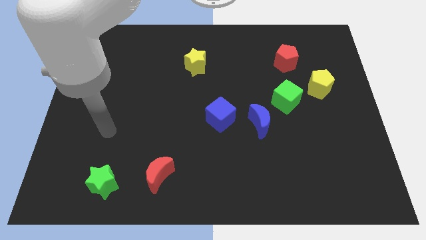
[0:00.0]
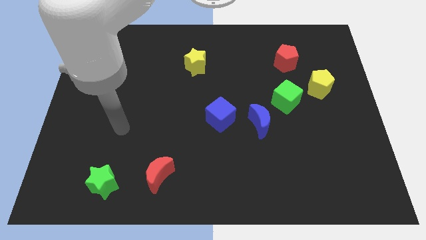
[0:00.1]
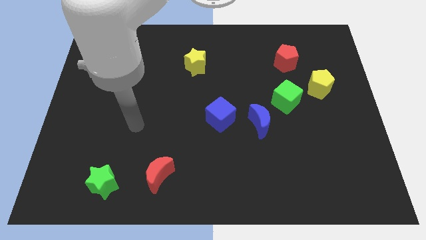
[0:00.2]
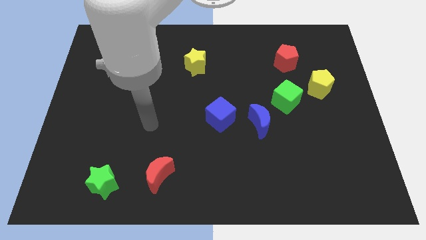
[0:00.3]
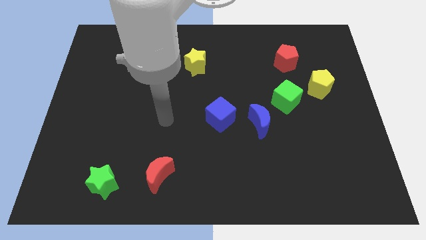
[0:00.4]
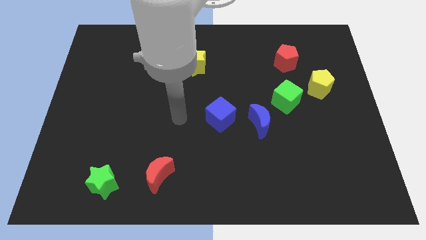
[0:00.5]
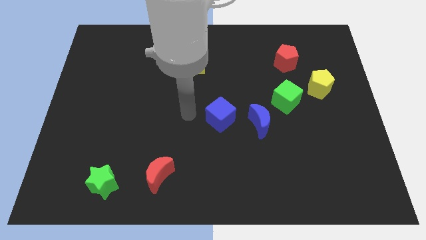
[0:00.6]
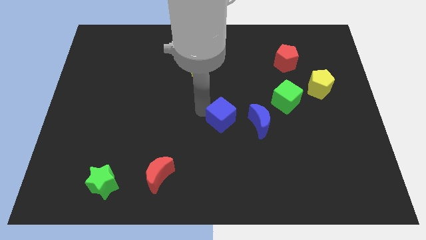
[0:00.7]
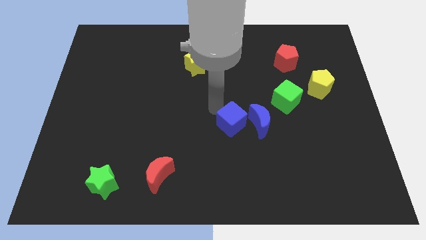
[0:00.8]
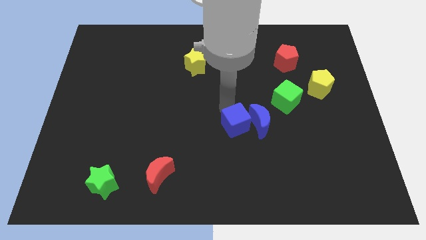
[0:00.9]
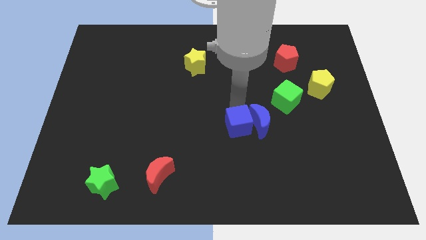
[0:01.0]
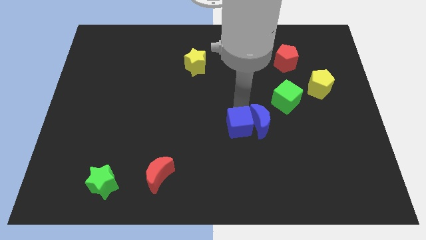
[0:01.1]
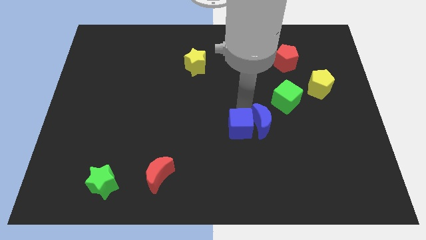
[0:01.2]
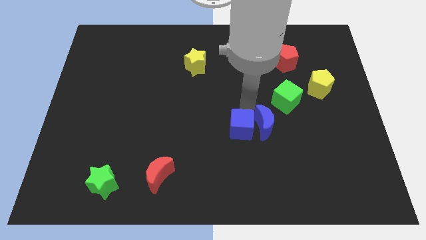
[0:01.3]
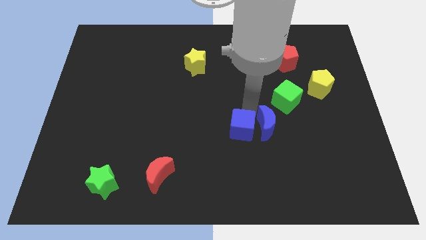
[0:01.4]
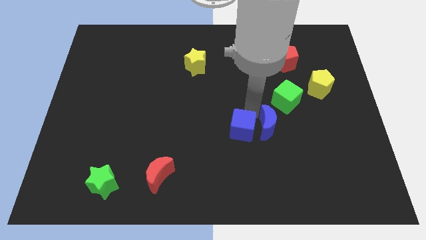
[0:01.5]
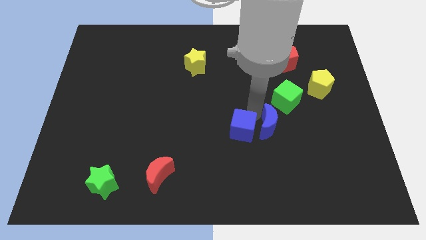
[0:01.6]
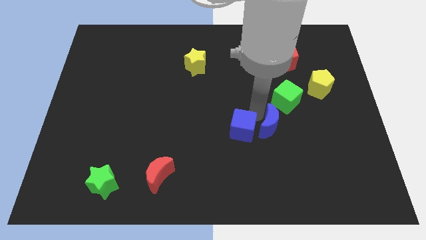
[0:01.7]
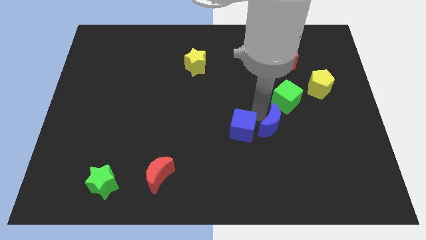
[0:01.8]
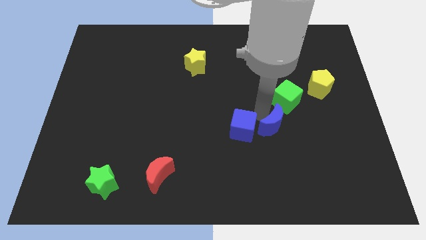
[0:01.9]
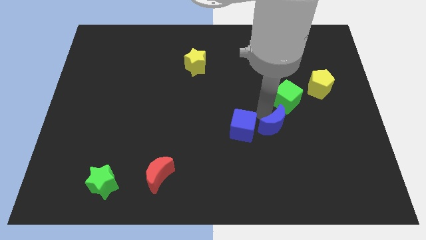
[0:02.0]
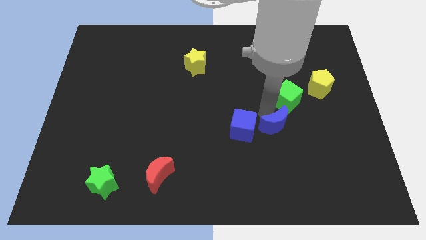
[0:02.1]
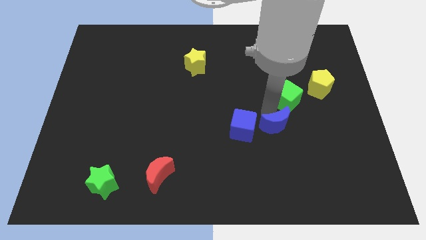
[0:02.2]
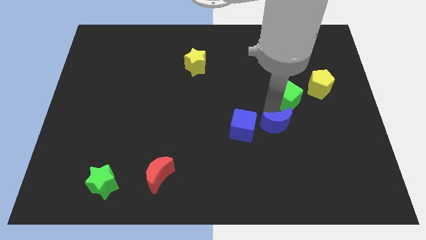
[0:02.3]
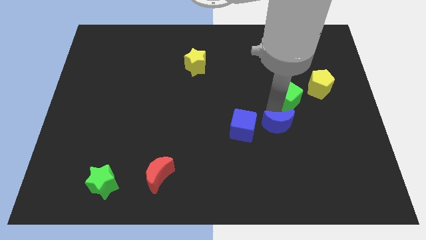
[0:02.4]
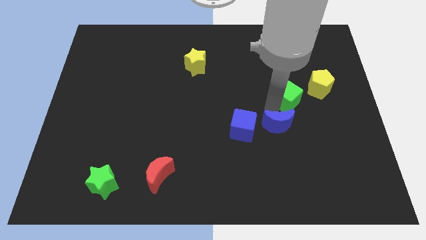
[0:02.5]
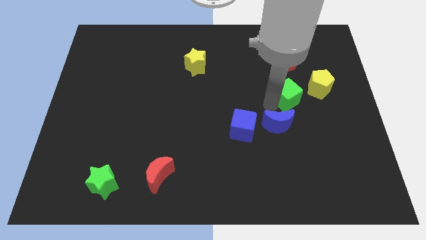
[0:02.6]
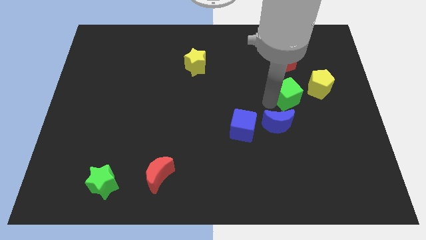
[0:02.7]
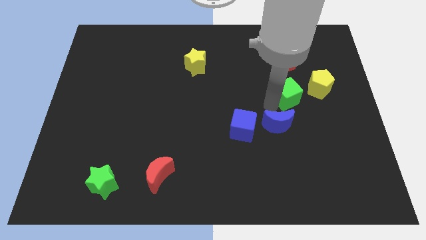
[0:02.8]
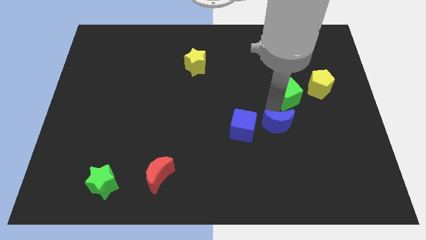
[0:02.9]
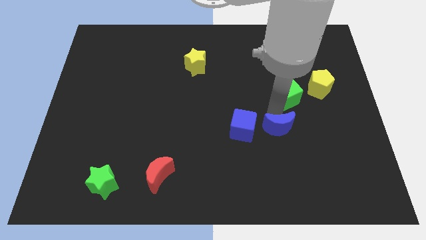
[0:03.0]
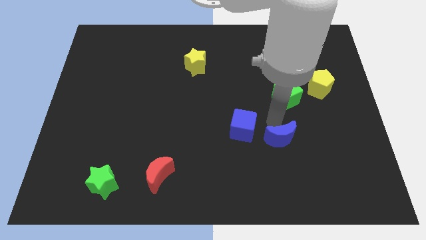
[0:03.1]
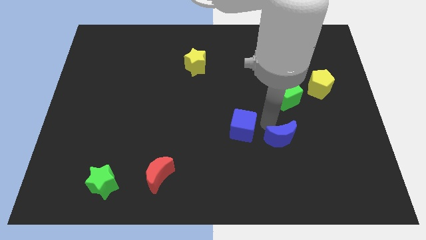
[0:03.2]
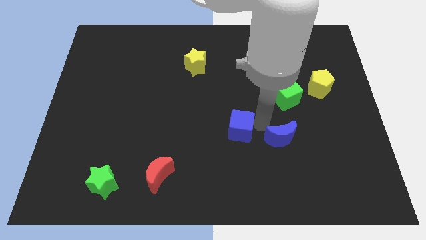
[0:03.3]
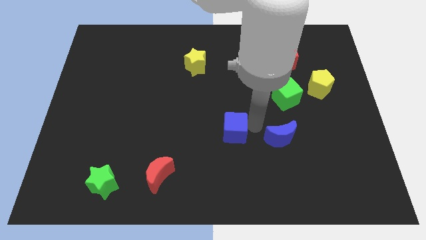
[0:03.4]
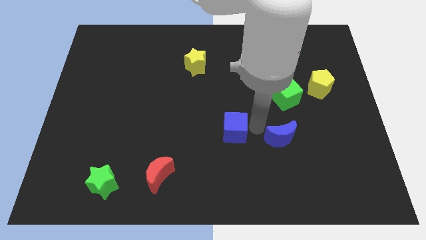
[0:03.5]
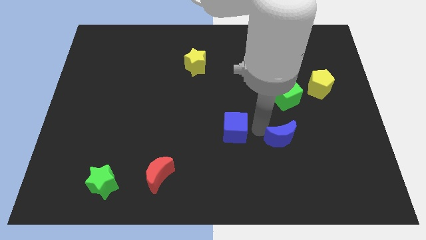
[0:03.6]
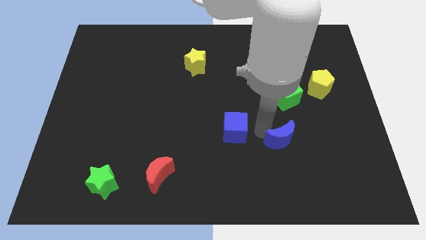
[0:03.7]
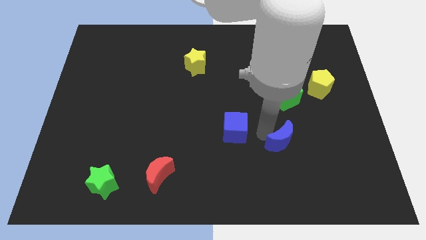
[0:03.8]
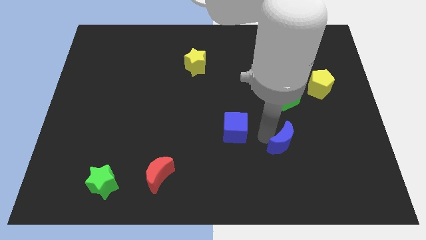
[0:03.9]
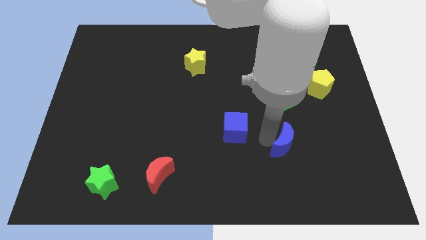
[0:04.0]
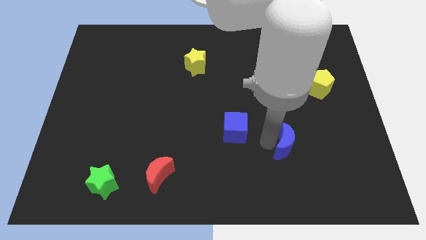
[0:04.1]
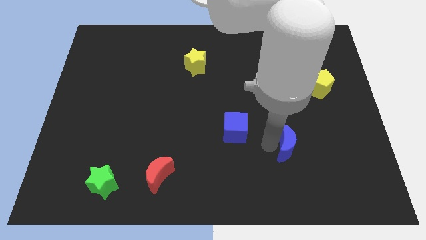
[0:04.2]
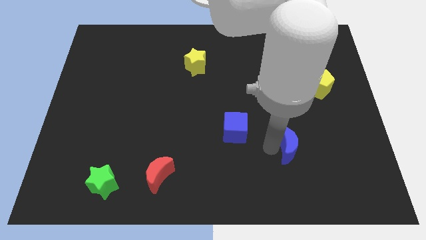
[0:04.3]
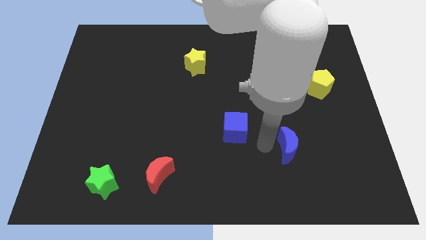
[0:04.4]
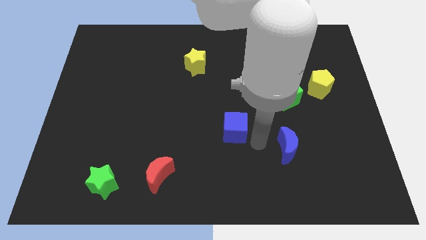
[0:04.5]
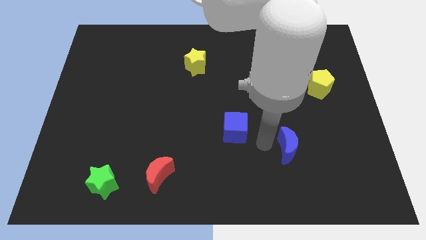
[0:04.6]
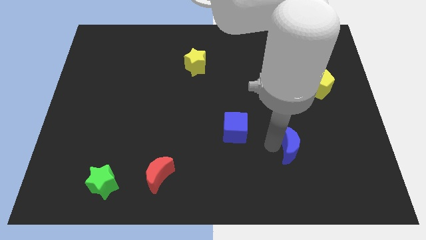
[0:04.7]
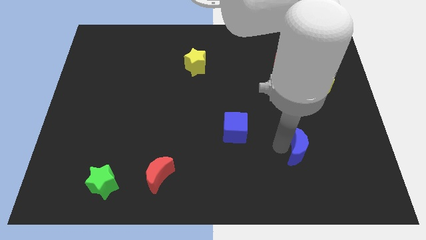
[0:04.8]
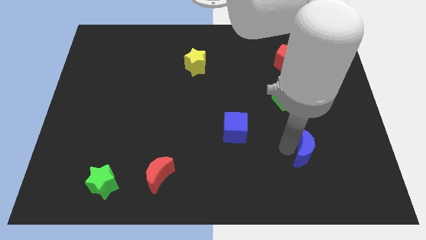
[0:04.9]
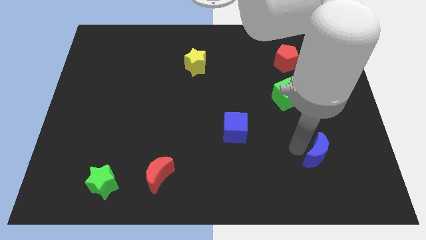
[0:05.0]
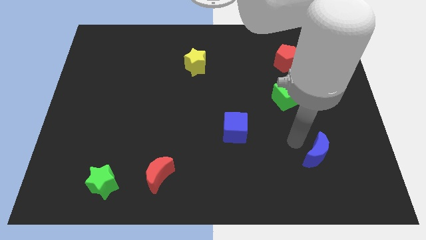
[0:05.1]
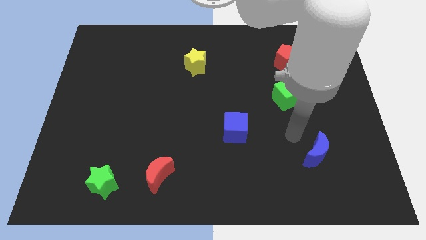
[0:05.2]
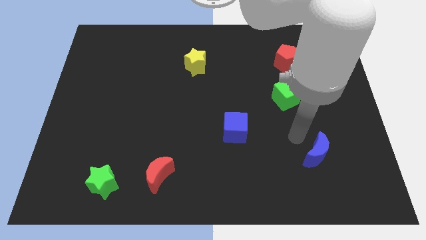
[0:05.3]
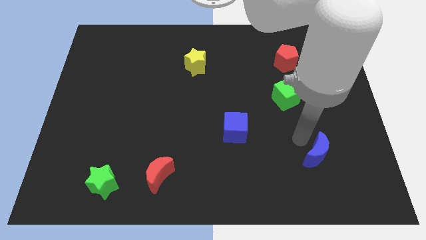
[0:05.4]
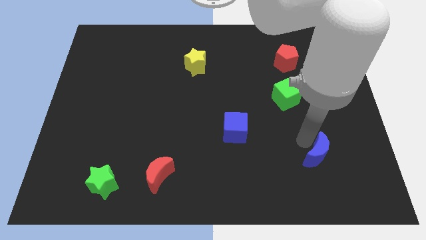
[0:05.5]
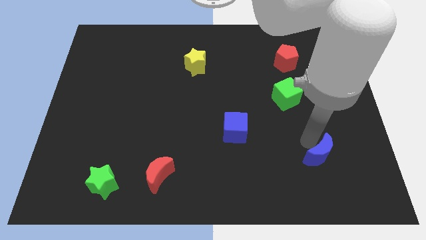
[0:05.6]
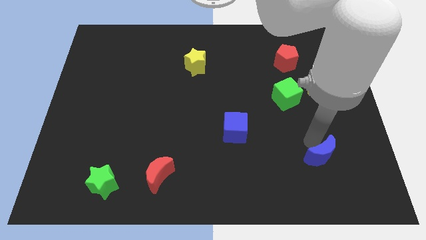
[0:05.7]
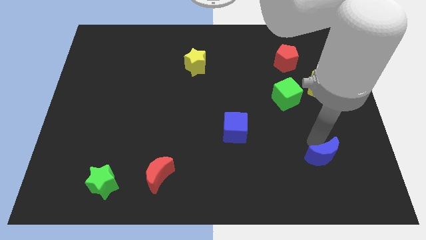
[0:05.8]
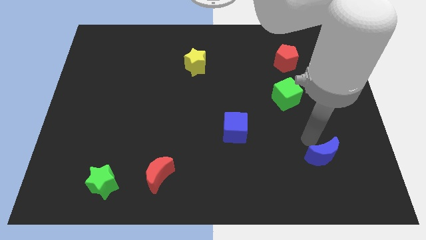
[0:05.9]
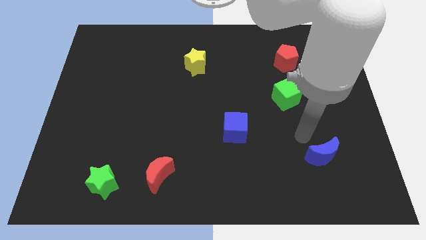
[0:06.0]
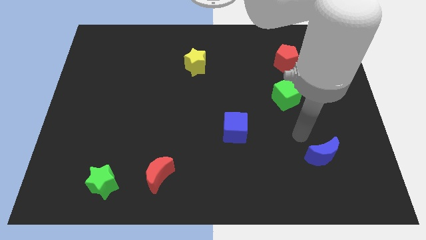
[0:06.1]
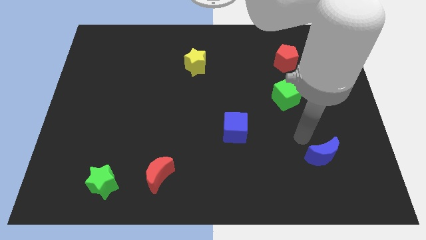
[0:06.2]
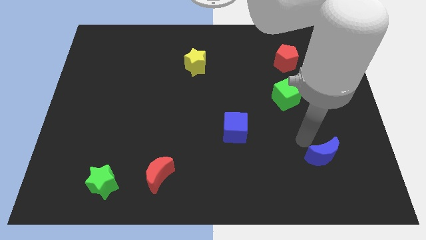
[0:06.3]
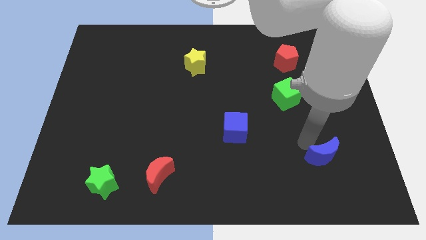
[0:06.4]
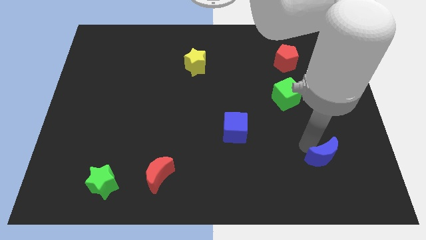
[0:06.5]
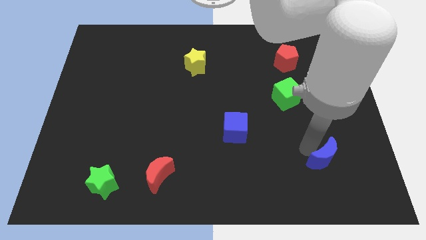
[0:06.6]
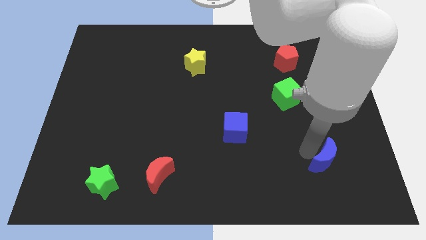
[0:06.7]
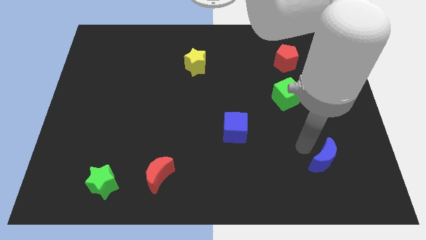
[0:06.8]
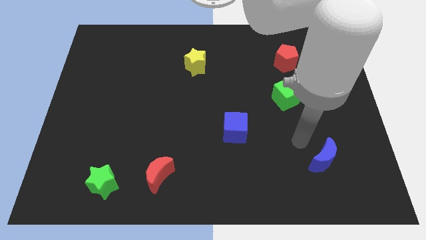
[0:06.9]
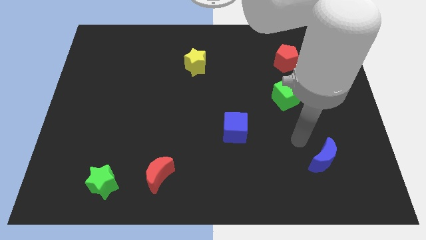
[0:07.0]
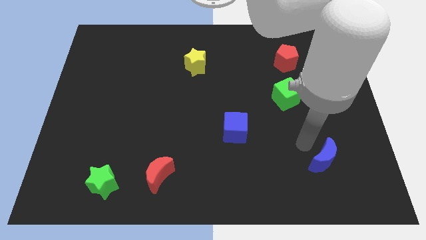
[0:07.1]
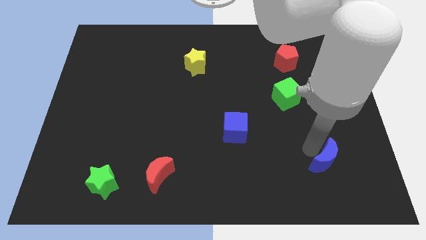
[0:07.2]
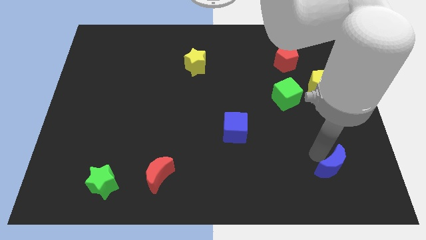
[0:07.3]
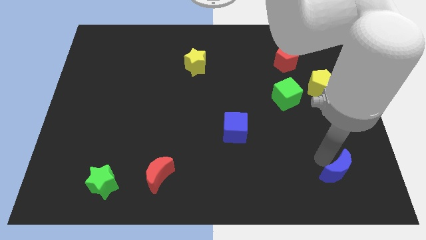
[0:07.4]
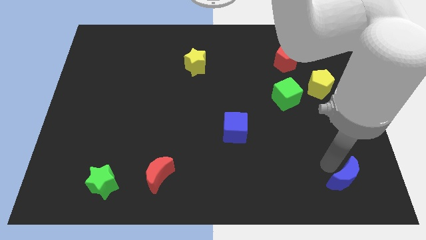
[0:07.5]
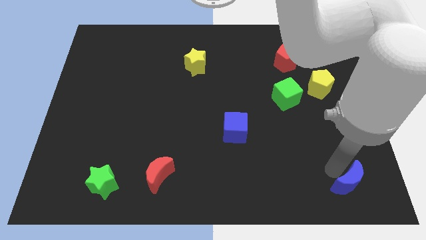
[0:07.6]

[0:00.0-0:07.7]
move the blue moon to the lower right corner
